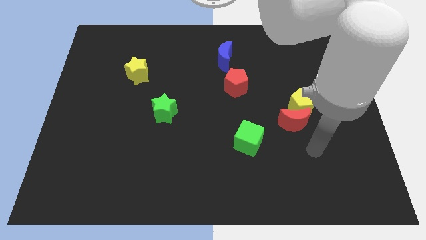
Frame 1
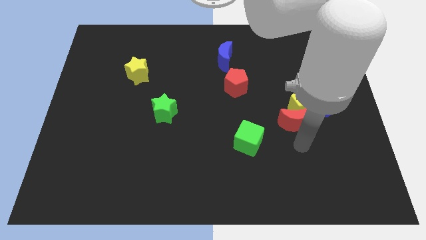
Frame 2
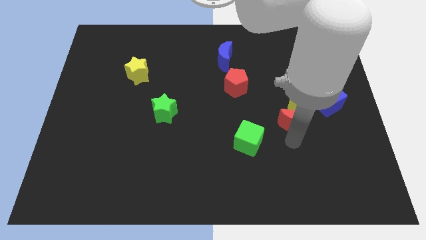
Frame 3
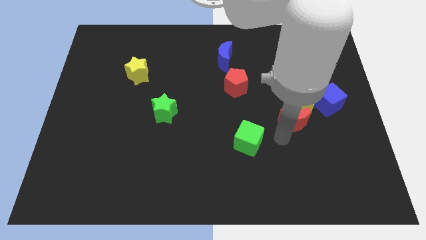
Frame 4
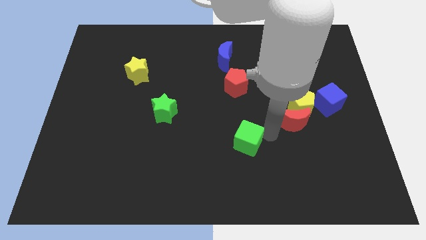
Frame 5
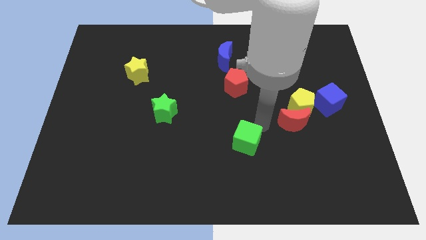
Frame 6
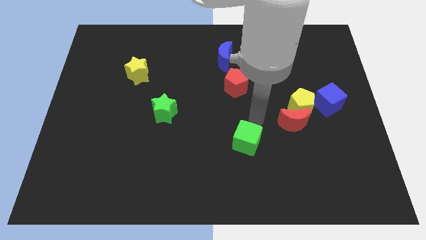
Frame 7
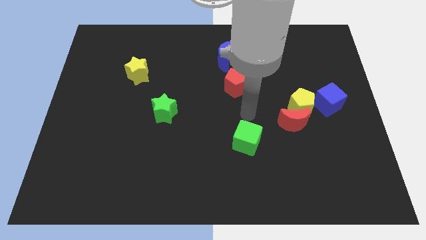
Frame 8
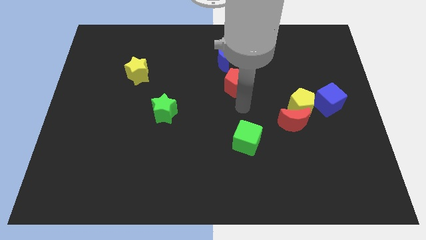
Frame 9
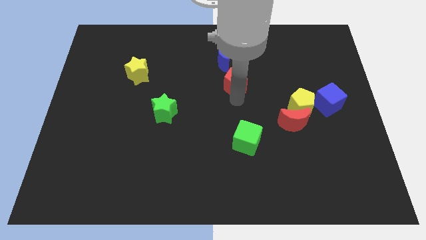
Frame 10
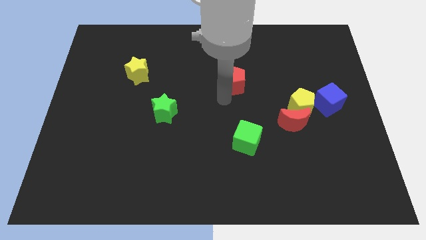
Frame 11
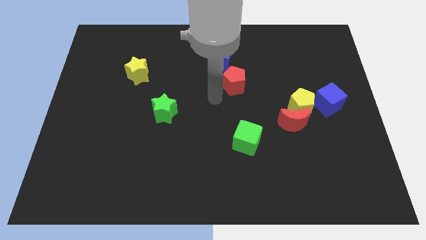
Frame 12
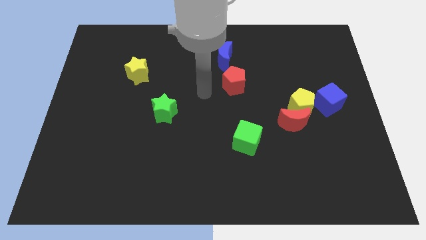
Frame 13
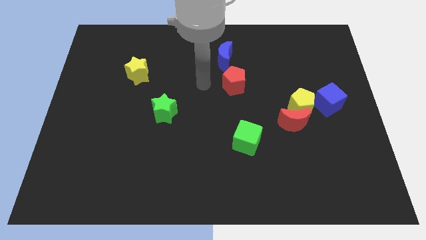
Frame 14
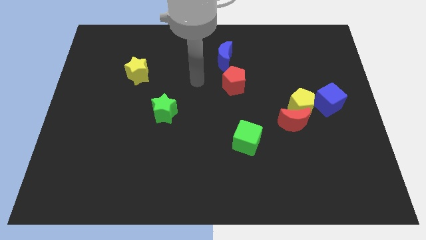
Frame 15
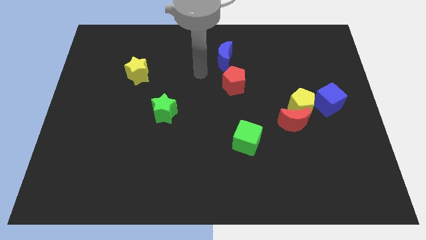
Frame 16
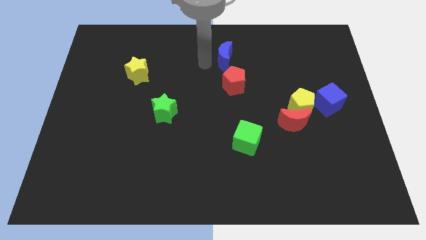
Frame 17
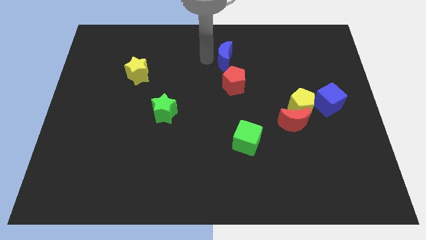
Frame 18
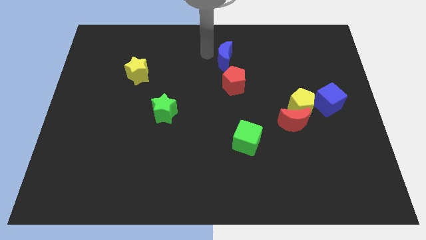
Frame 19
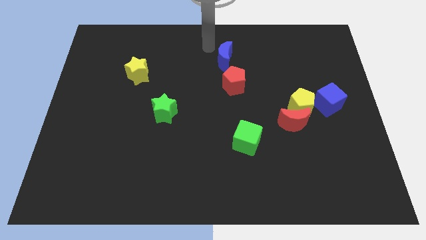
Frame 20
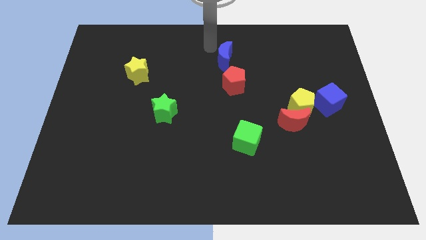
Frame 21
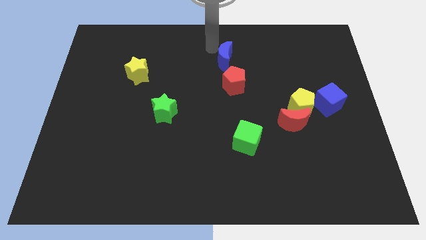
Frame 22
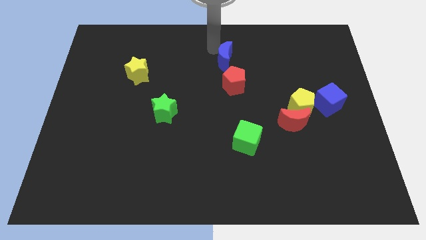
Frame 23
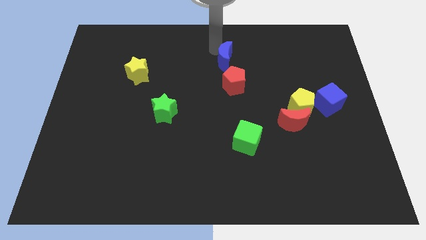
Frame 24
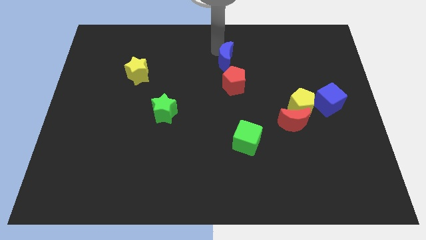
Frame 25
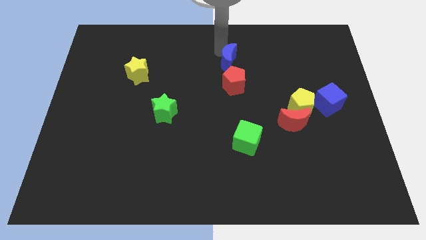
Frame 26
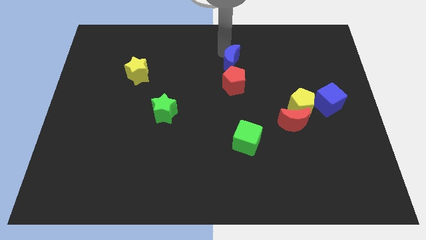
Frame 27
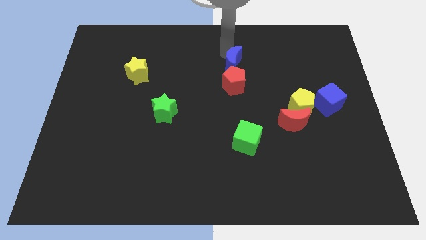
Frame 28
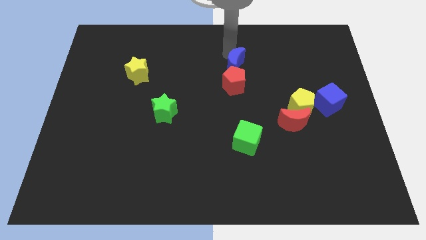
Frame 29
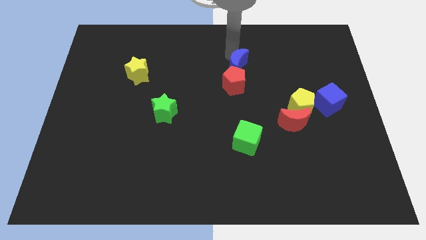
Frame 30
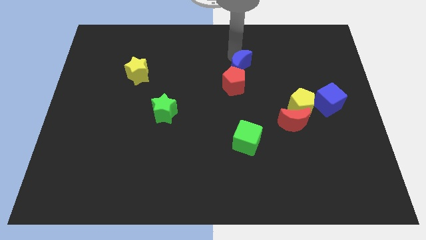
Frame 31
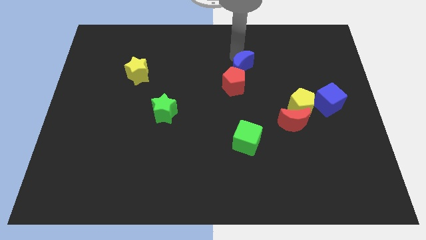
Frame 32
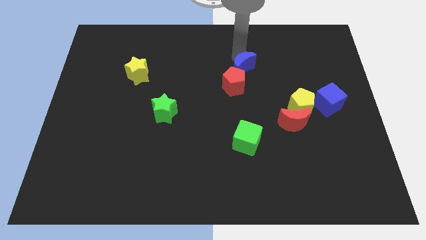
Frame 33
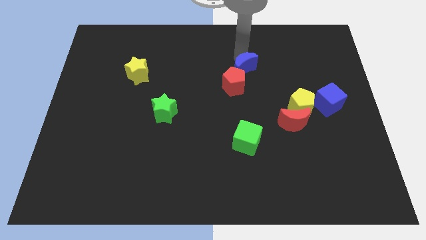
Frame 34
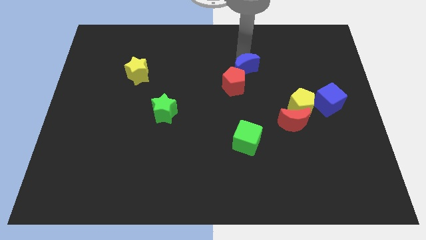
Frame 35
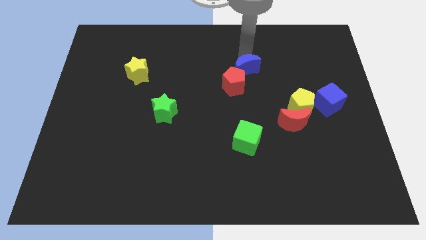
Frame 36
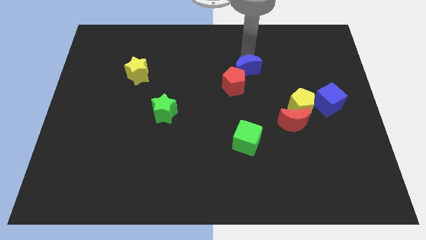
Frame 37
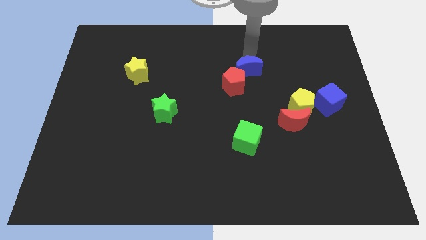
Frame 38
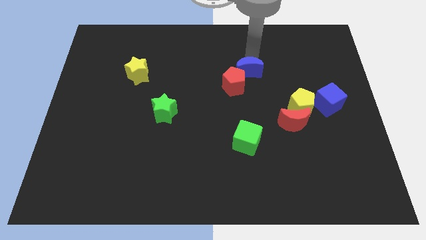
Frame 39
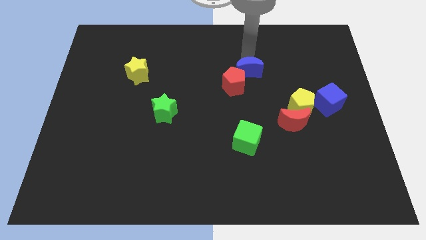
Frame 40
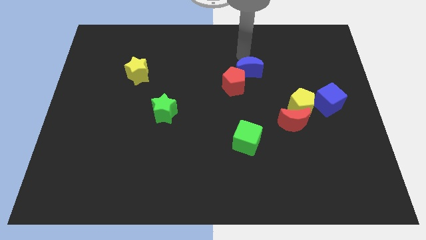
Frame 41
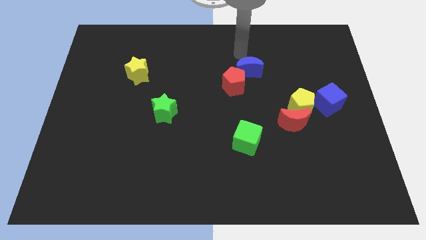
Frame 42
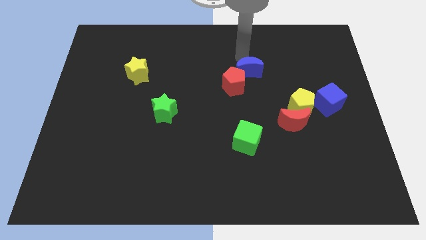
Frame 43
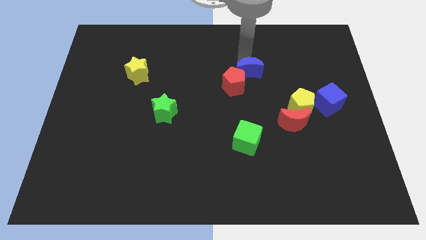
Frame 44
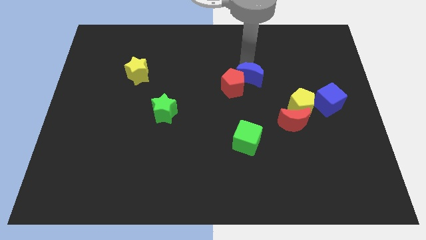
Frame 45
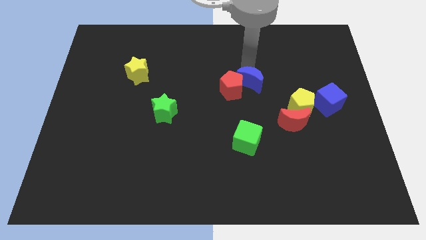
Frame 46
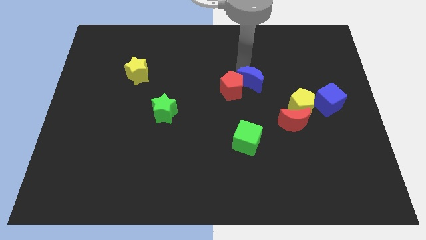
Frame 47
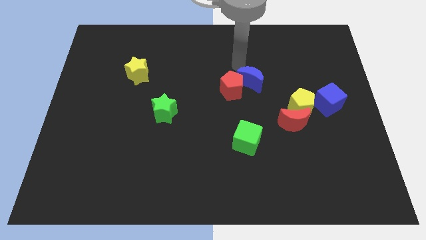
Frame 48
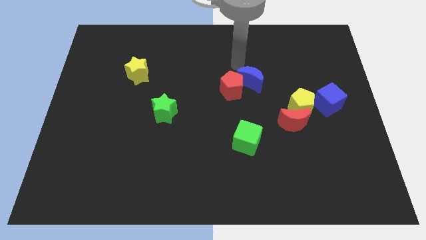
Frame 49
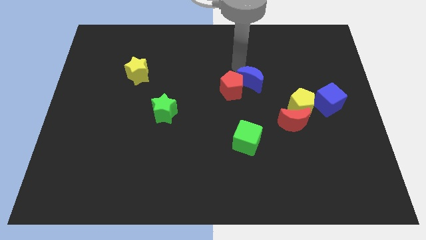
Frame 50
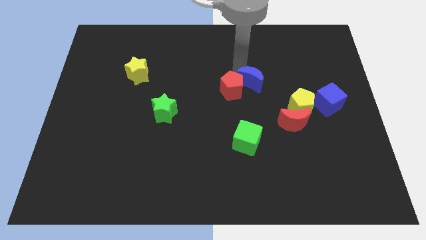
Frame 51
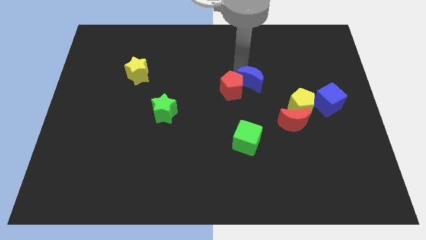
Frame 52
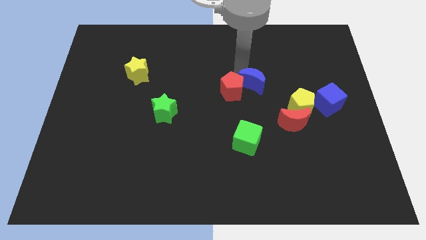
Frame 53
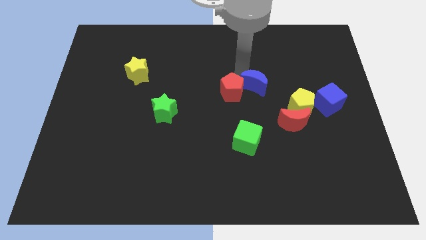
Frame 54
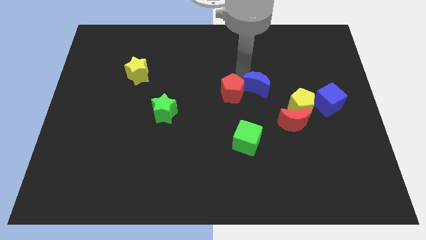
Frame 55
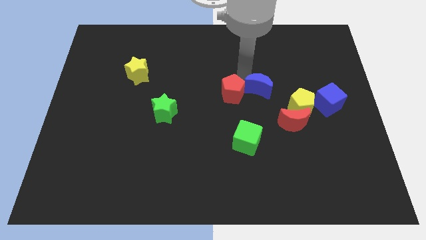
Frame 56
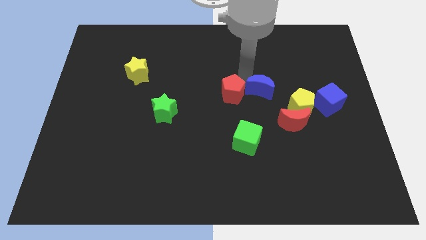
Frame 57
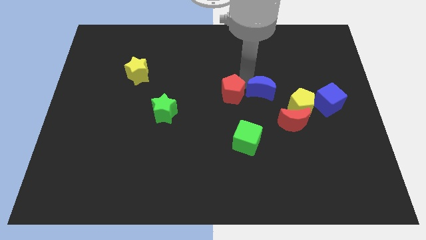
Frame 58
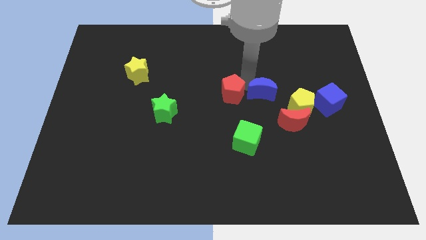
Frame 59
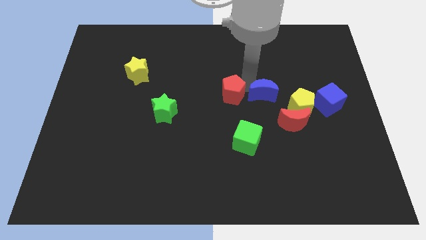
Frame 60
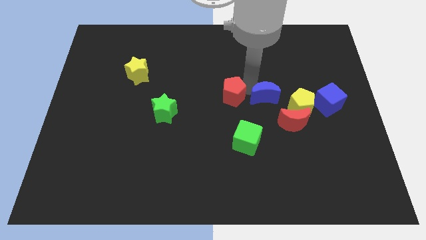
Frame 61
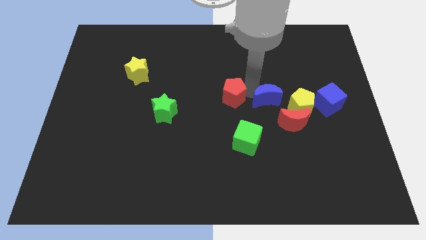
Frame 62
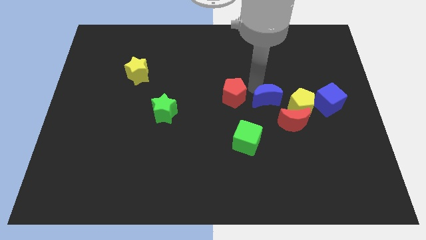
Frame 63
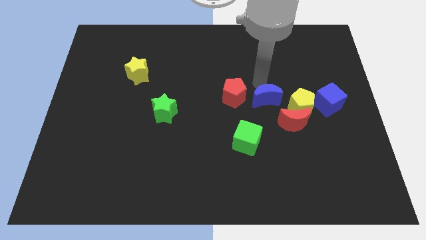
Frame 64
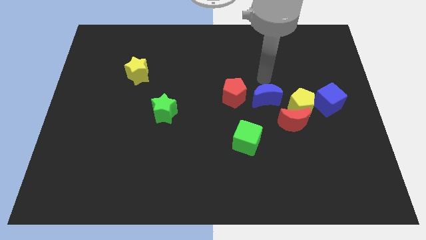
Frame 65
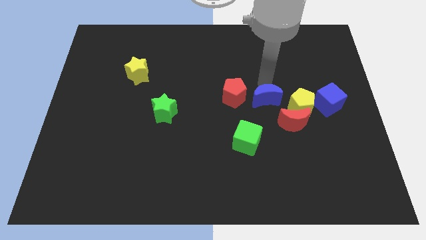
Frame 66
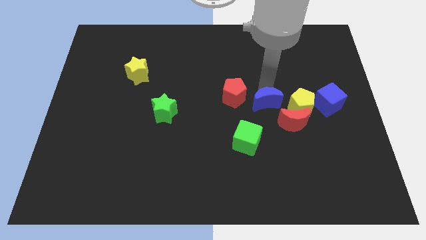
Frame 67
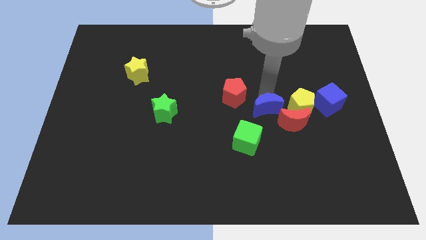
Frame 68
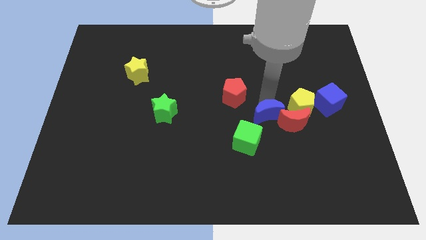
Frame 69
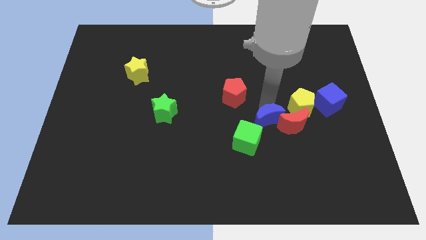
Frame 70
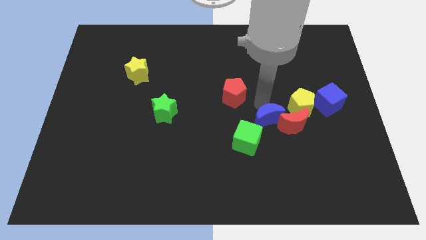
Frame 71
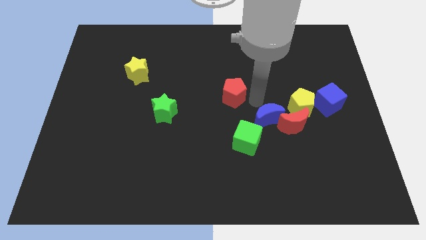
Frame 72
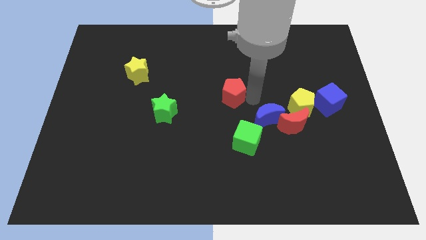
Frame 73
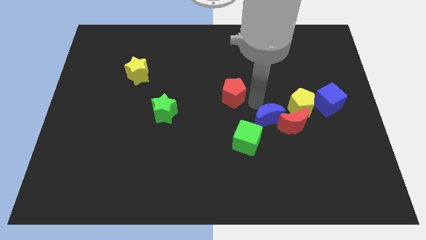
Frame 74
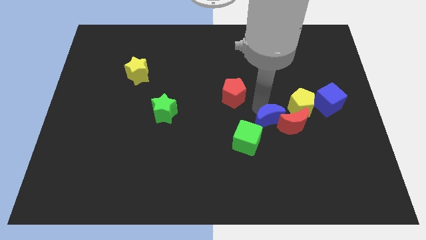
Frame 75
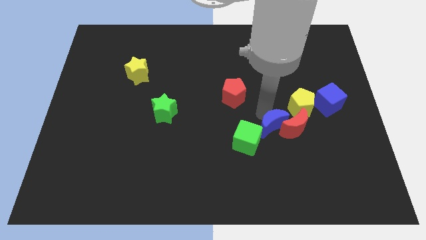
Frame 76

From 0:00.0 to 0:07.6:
move the blue moon diagonally down and right

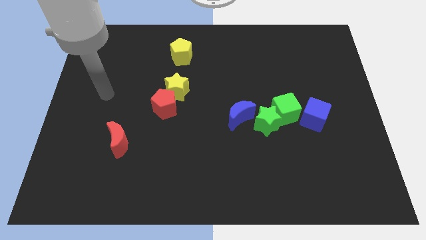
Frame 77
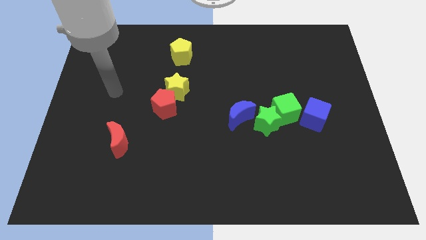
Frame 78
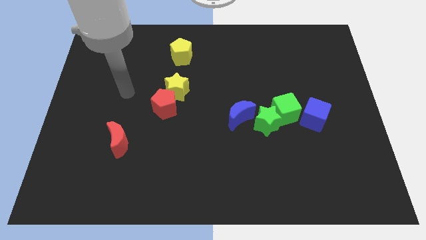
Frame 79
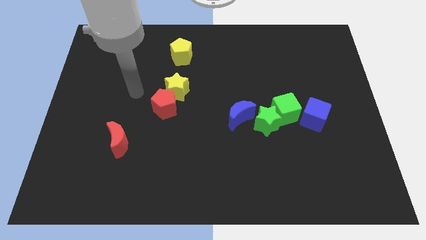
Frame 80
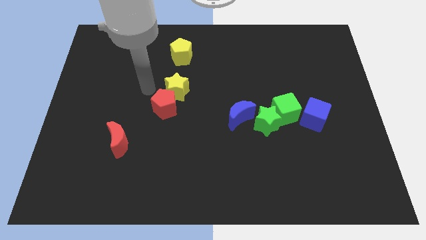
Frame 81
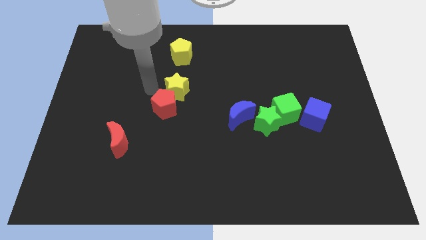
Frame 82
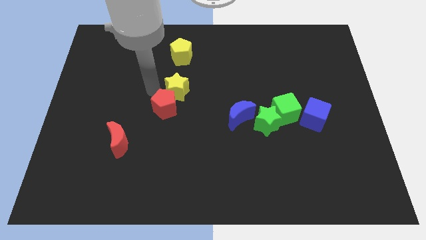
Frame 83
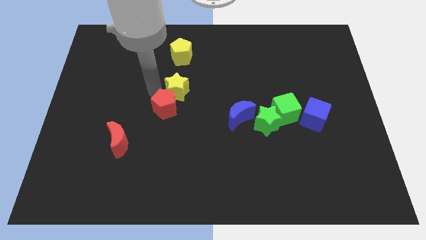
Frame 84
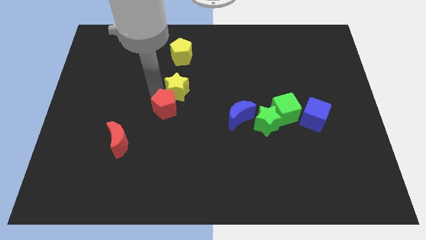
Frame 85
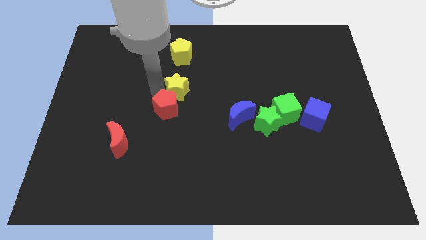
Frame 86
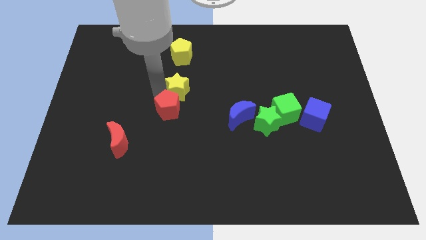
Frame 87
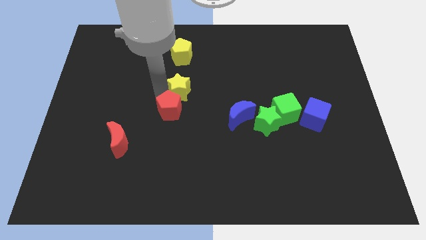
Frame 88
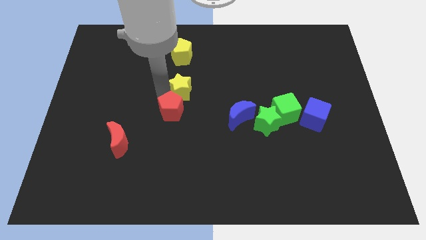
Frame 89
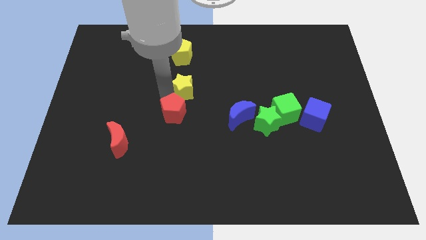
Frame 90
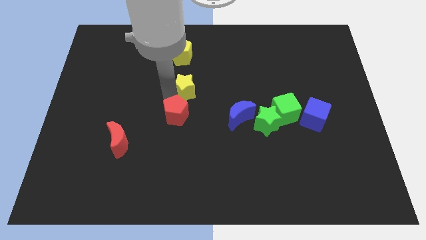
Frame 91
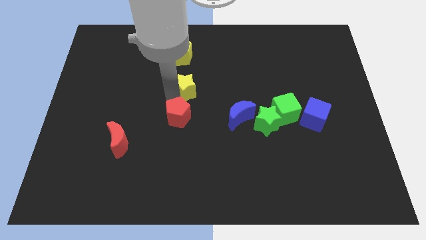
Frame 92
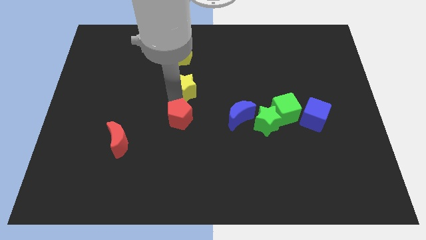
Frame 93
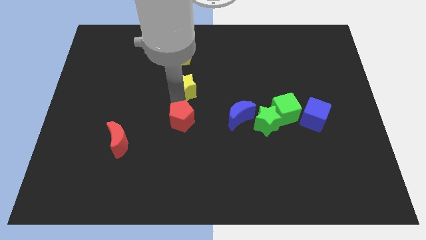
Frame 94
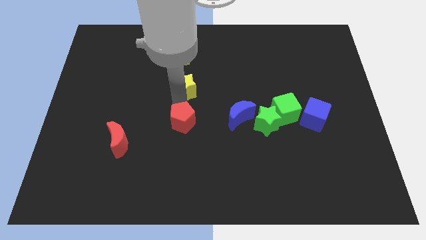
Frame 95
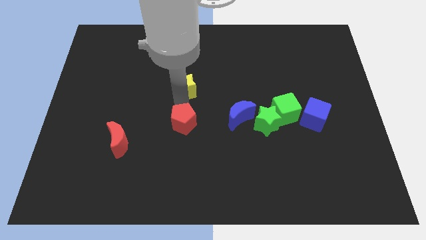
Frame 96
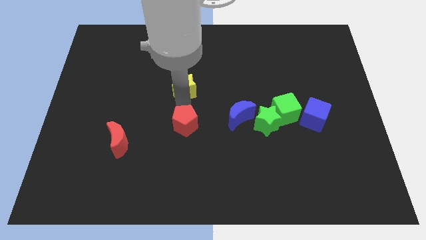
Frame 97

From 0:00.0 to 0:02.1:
push the red pentagon down and right diagonally a bit
